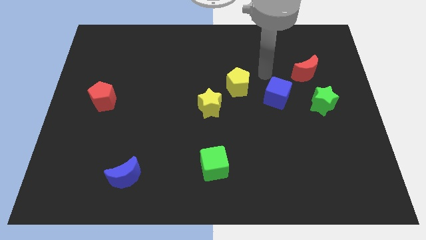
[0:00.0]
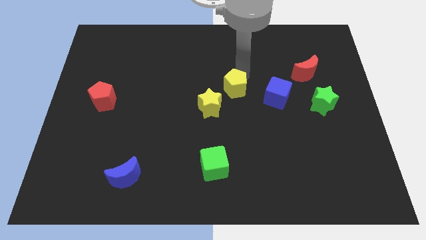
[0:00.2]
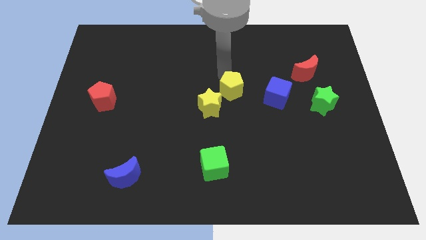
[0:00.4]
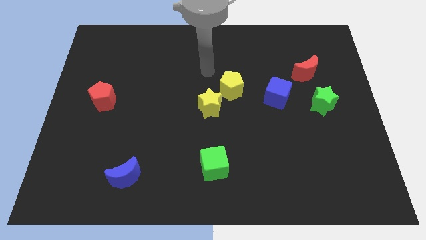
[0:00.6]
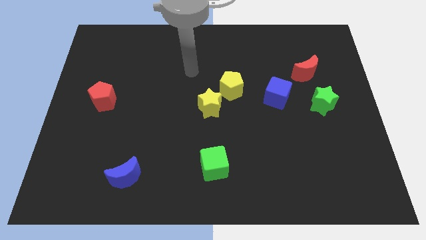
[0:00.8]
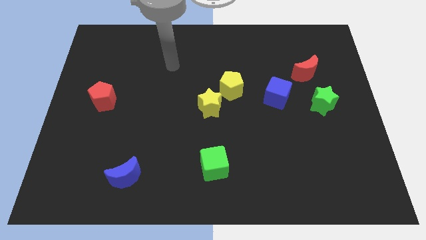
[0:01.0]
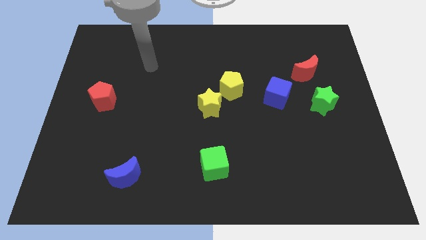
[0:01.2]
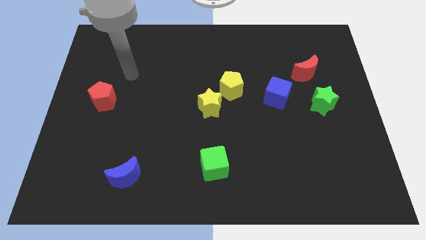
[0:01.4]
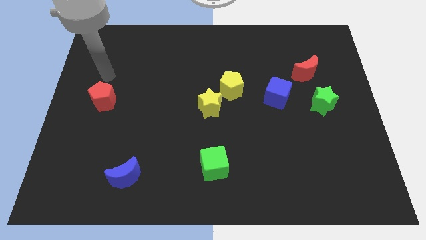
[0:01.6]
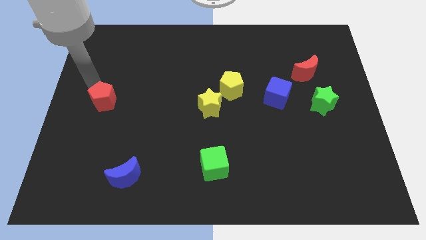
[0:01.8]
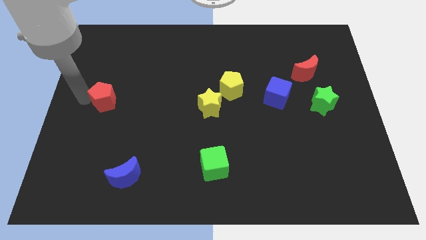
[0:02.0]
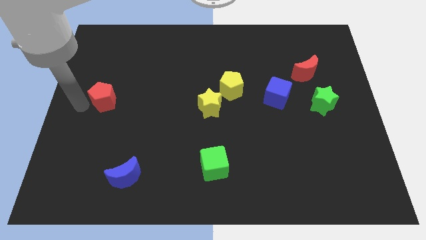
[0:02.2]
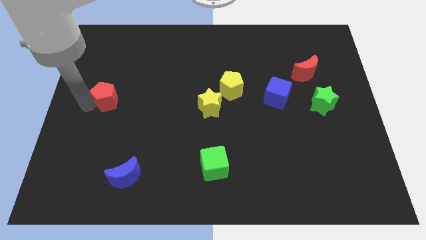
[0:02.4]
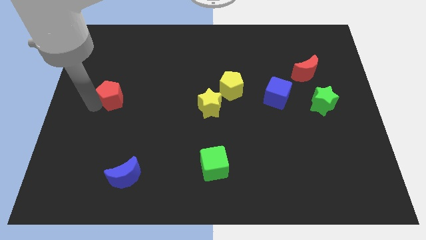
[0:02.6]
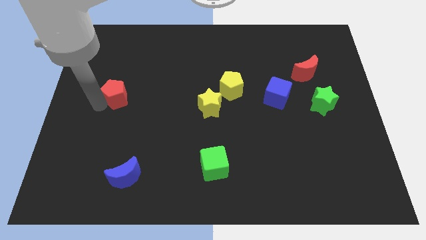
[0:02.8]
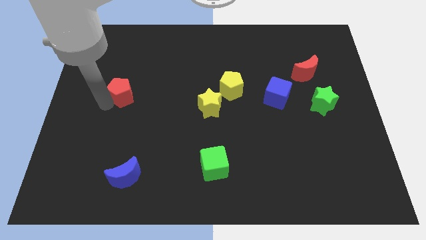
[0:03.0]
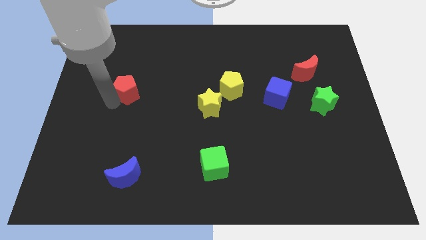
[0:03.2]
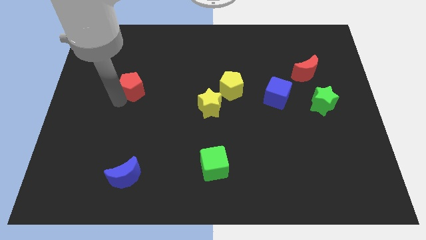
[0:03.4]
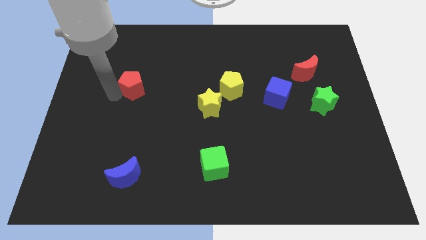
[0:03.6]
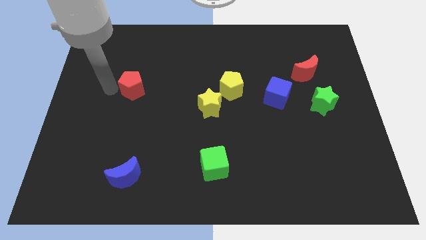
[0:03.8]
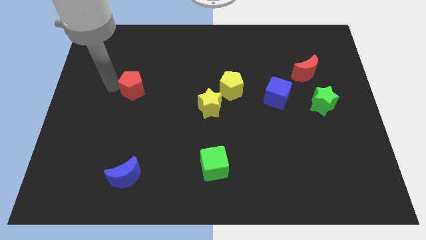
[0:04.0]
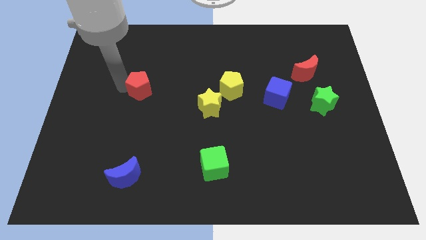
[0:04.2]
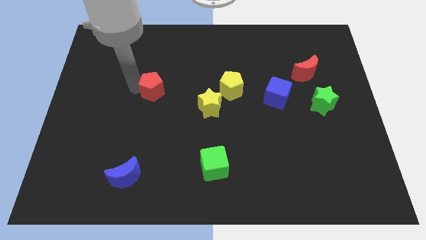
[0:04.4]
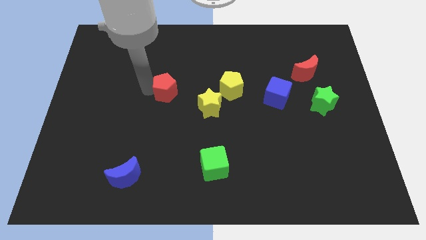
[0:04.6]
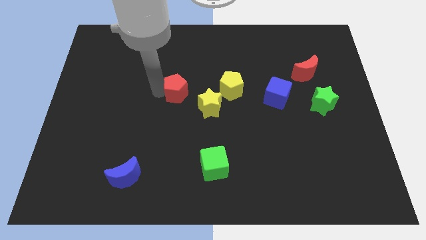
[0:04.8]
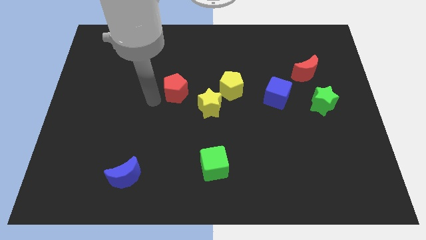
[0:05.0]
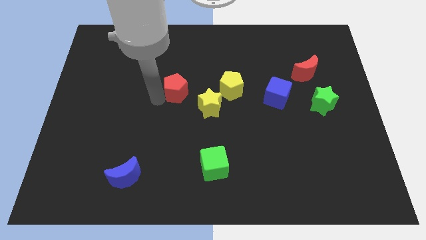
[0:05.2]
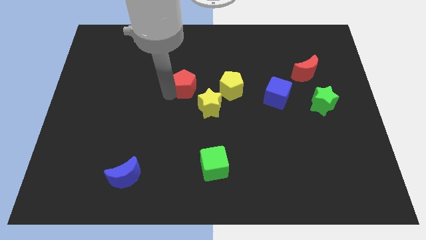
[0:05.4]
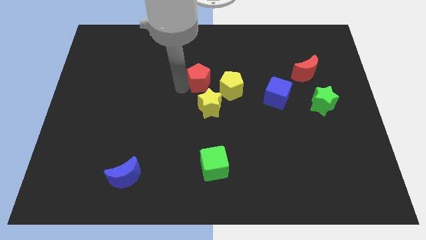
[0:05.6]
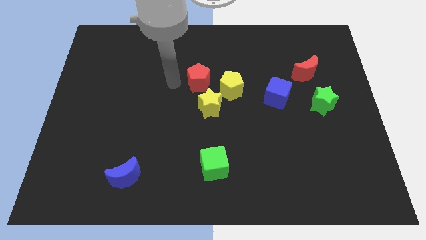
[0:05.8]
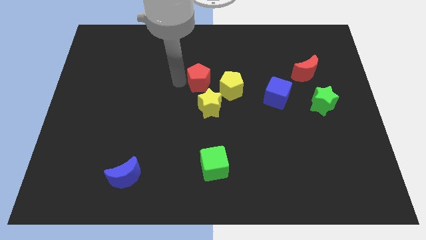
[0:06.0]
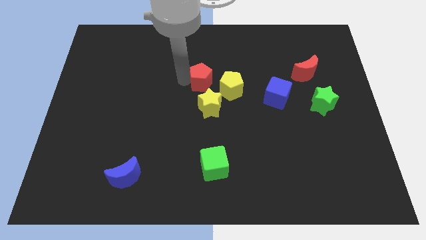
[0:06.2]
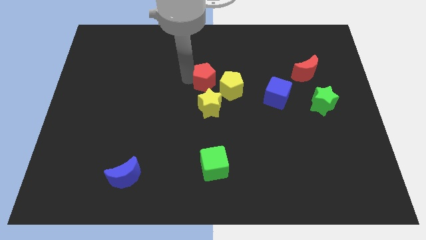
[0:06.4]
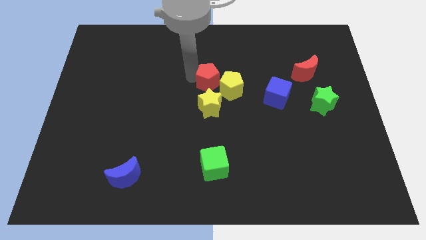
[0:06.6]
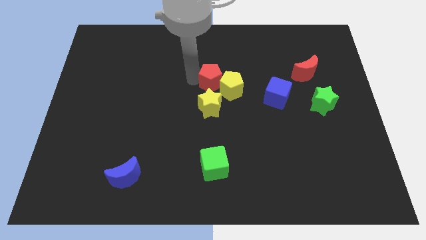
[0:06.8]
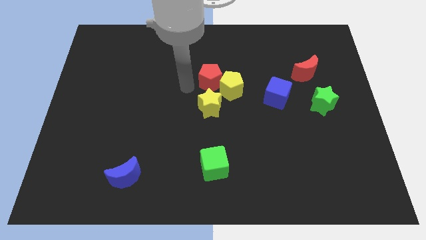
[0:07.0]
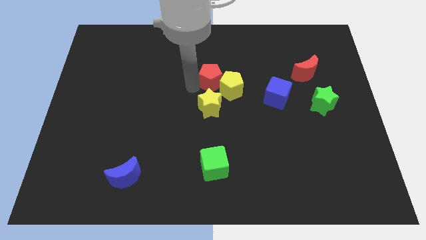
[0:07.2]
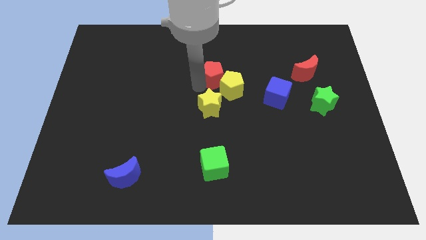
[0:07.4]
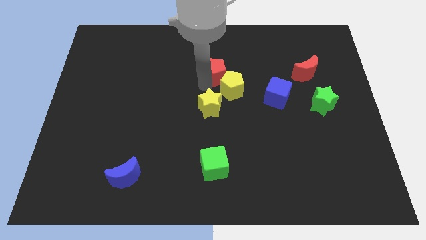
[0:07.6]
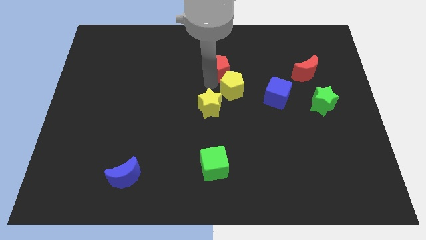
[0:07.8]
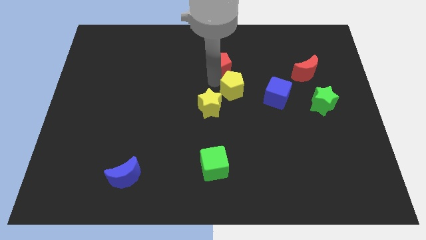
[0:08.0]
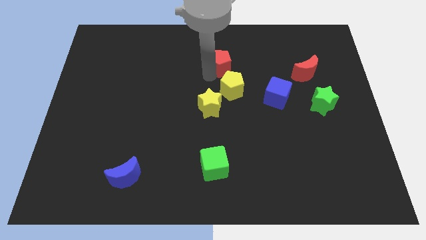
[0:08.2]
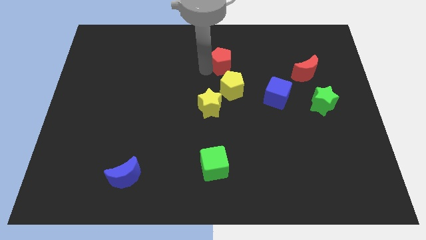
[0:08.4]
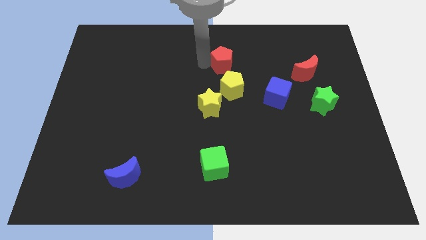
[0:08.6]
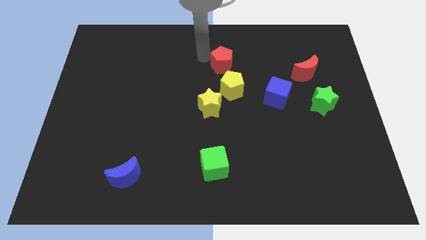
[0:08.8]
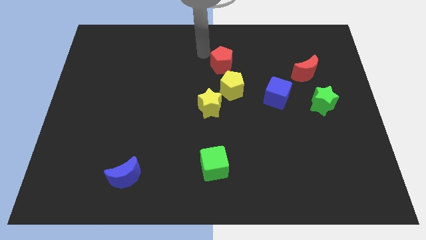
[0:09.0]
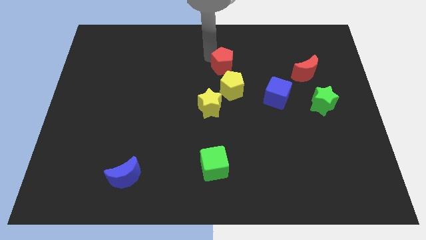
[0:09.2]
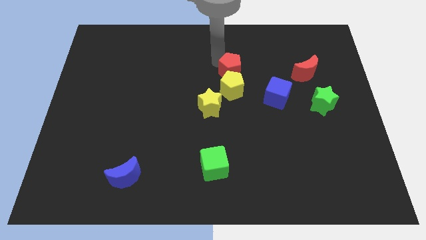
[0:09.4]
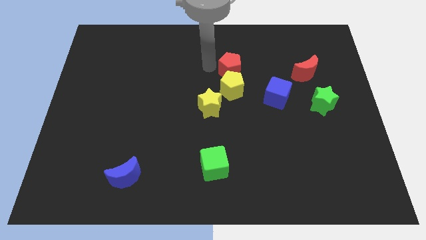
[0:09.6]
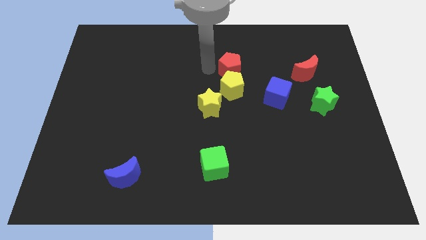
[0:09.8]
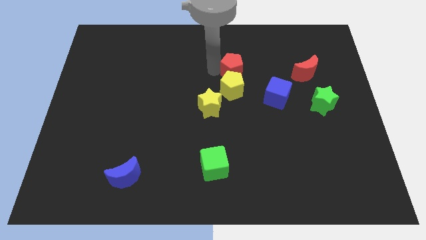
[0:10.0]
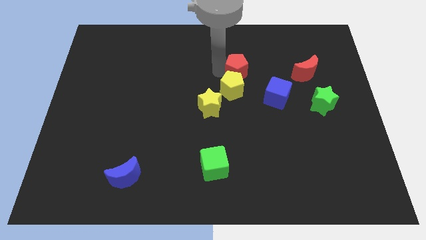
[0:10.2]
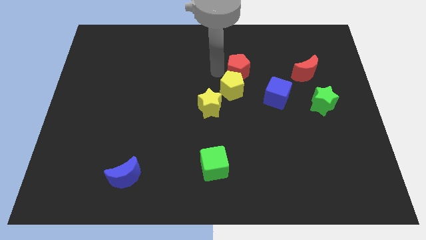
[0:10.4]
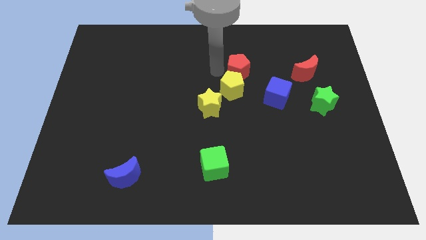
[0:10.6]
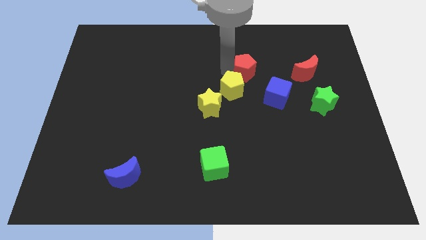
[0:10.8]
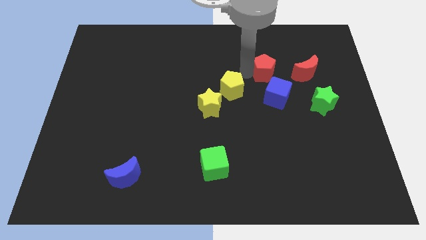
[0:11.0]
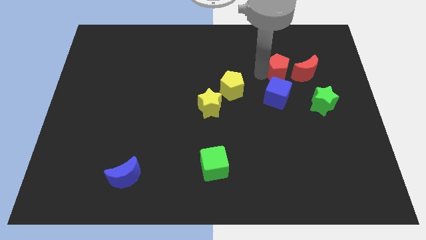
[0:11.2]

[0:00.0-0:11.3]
push the red pentagon diagonally up and to the left of the red moon

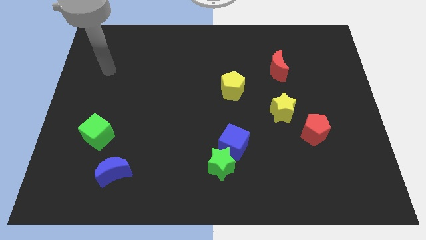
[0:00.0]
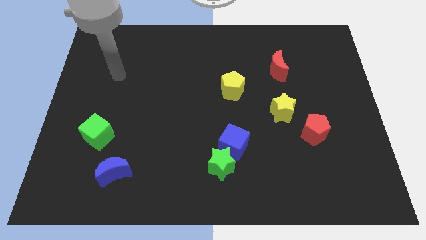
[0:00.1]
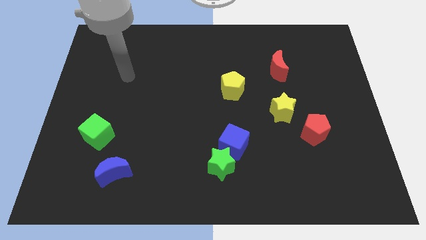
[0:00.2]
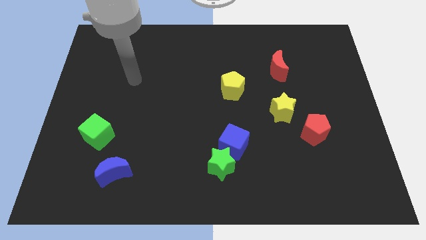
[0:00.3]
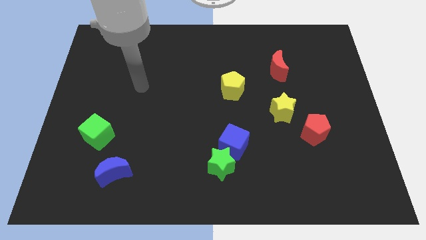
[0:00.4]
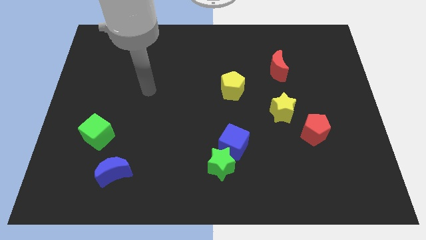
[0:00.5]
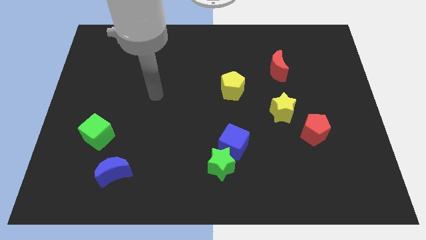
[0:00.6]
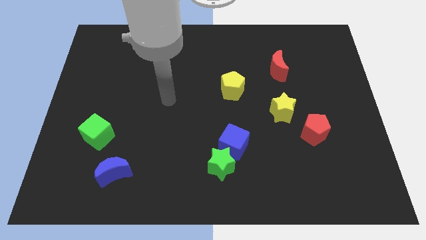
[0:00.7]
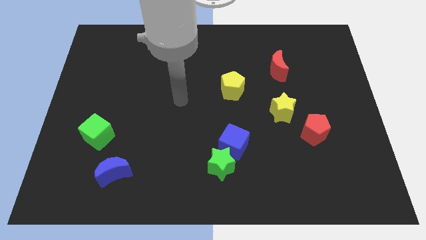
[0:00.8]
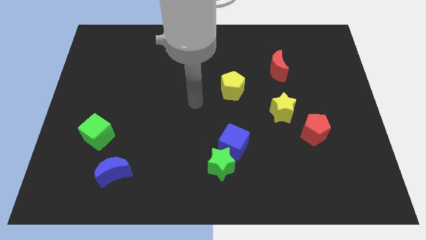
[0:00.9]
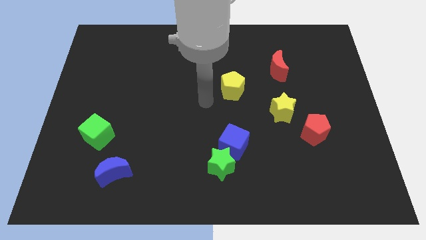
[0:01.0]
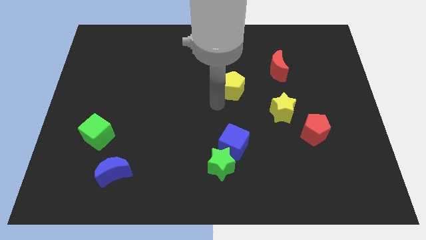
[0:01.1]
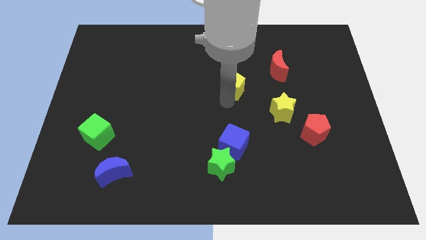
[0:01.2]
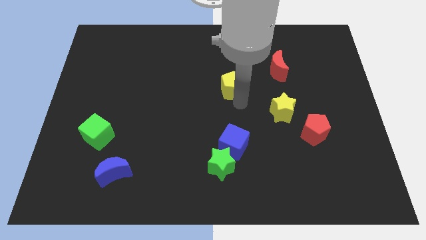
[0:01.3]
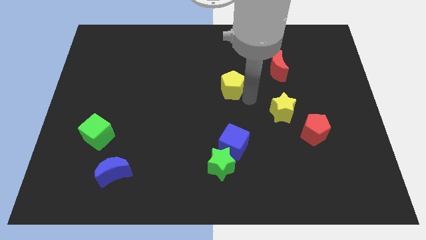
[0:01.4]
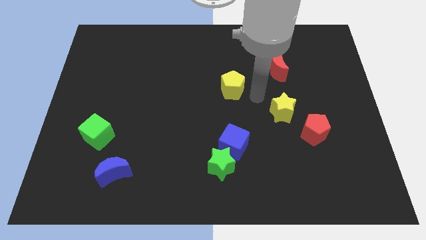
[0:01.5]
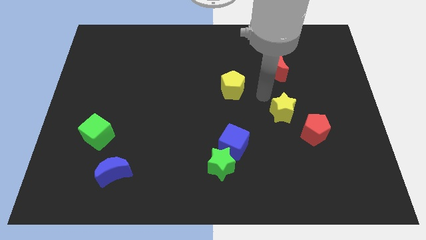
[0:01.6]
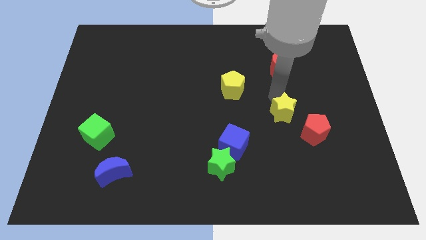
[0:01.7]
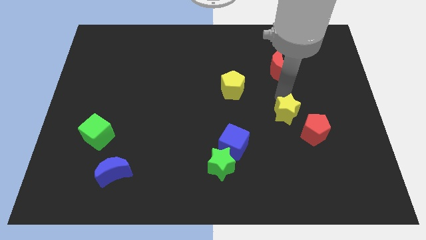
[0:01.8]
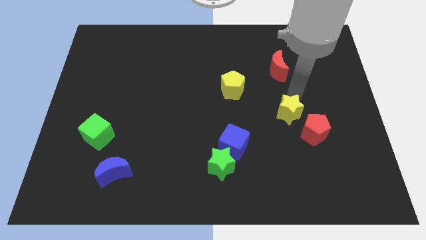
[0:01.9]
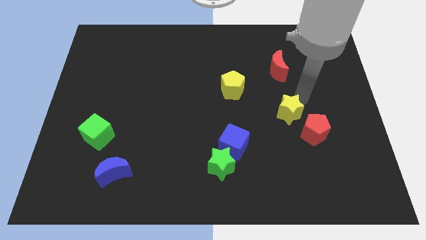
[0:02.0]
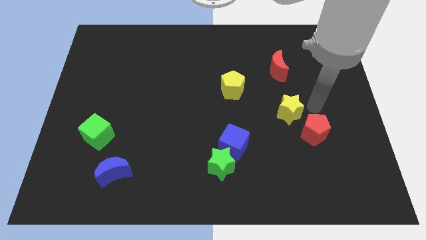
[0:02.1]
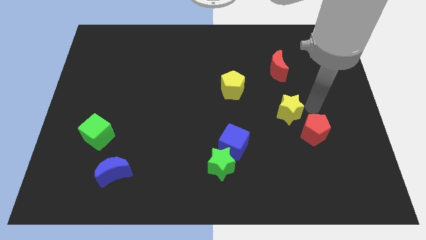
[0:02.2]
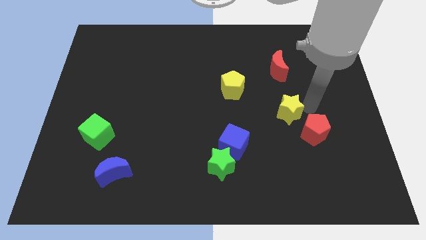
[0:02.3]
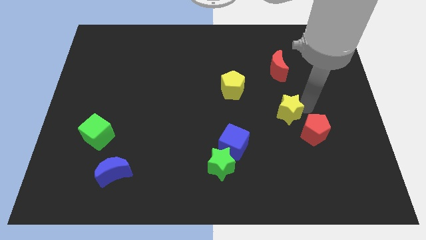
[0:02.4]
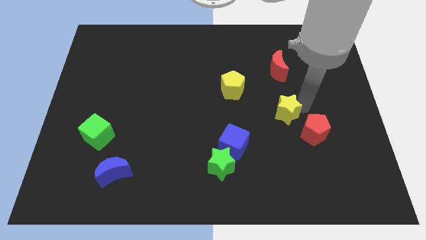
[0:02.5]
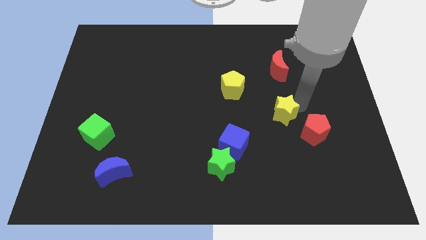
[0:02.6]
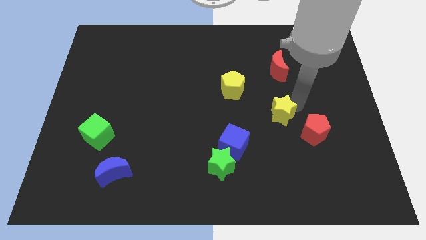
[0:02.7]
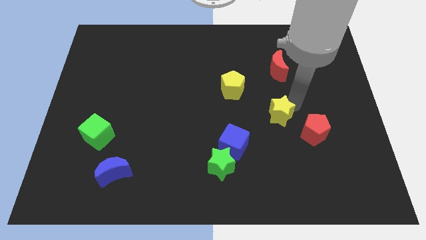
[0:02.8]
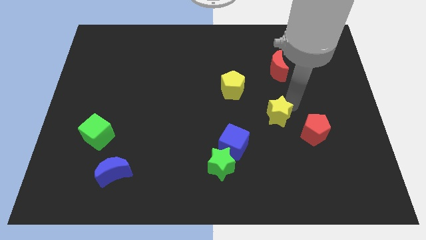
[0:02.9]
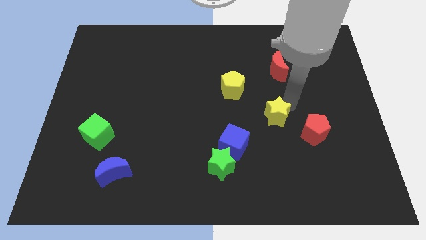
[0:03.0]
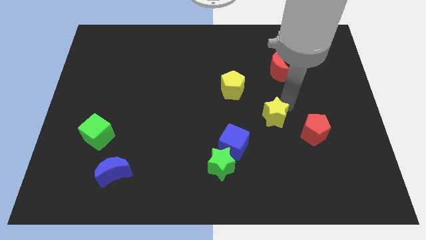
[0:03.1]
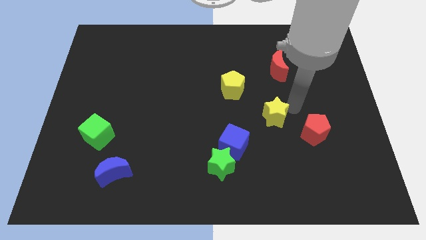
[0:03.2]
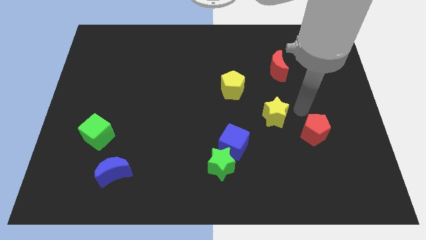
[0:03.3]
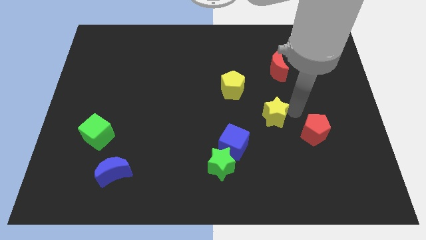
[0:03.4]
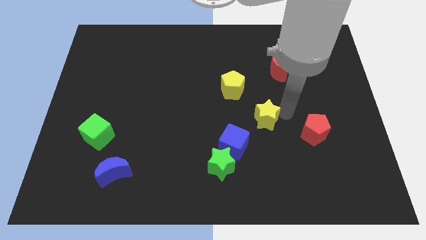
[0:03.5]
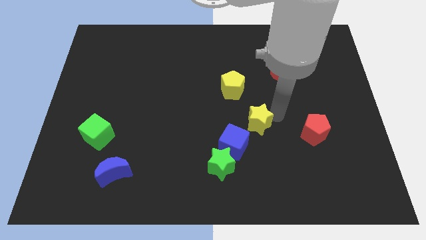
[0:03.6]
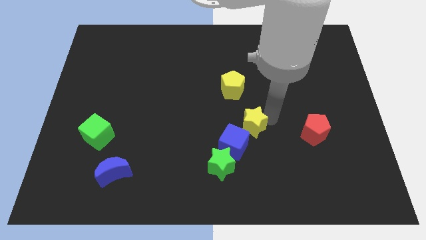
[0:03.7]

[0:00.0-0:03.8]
move the yellow star to the bottom of the yellow pentagon
